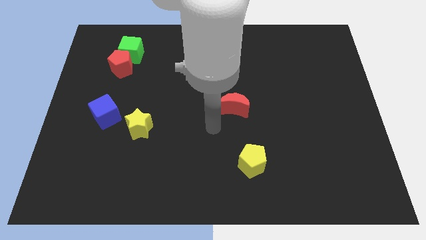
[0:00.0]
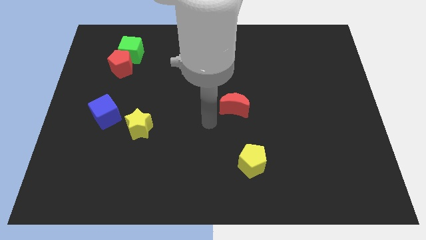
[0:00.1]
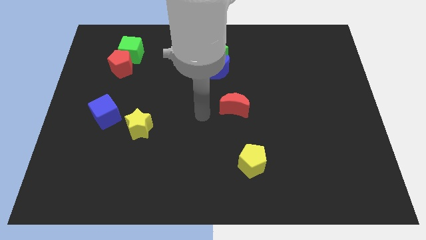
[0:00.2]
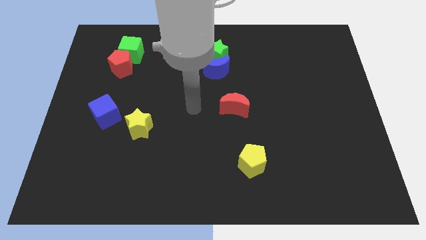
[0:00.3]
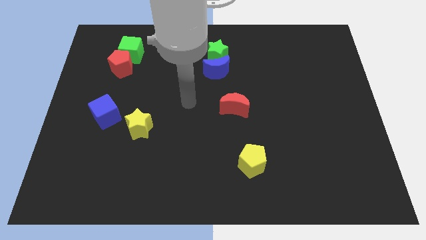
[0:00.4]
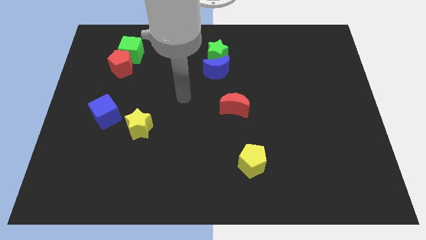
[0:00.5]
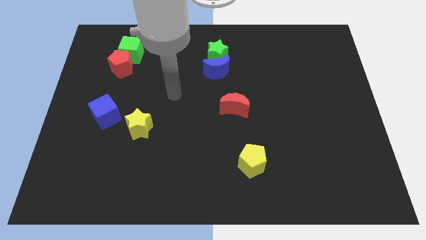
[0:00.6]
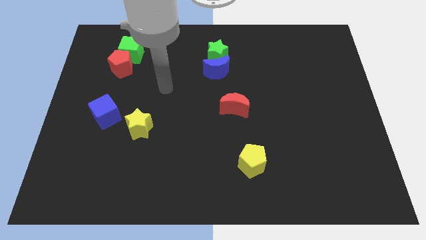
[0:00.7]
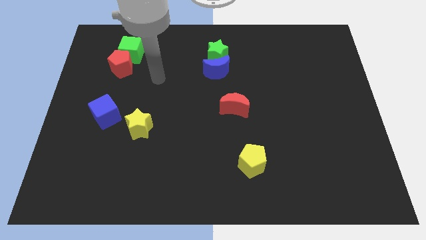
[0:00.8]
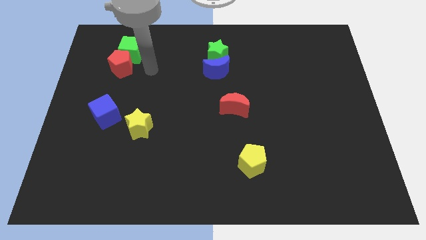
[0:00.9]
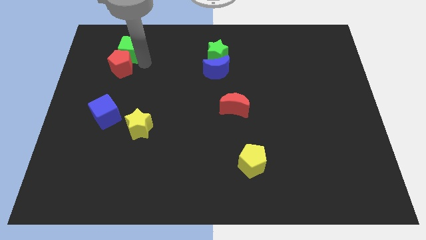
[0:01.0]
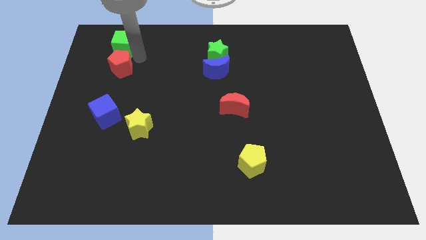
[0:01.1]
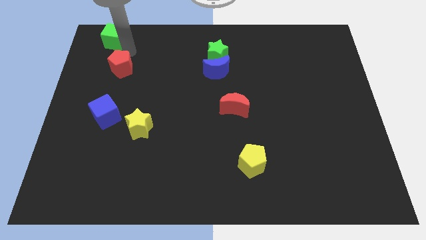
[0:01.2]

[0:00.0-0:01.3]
separate the red pentagon from the green cube

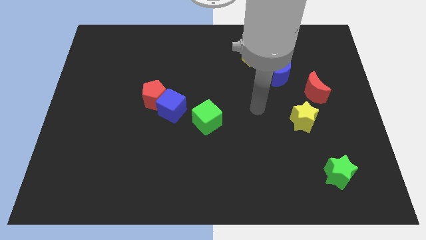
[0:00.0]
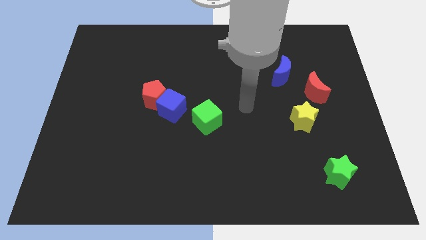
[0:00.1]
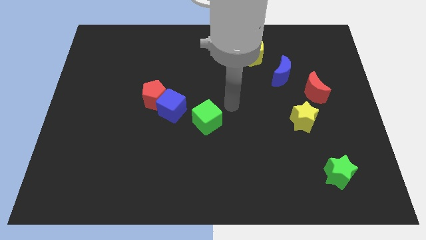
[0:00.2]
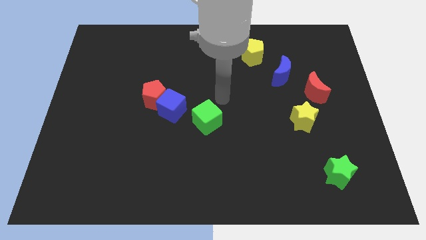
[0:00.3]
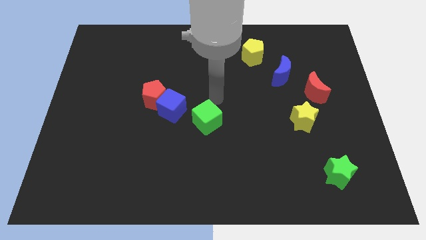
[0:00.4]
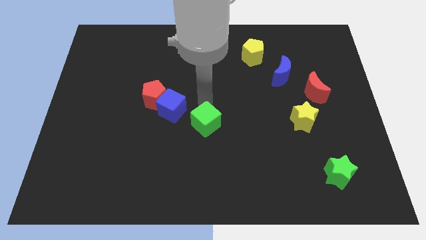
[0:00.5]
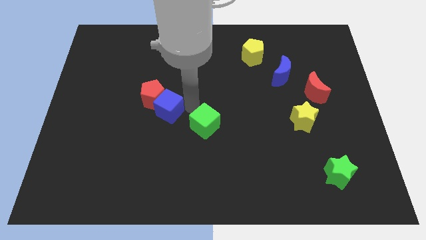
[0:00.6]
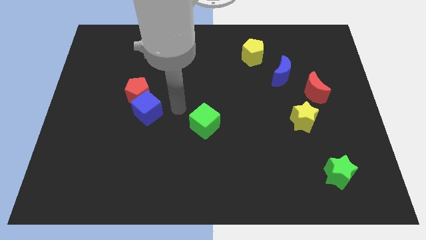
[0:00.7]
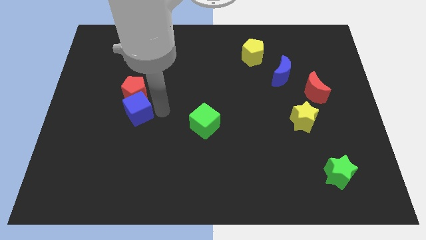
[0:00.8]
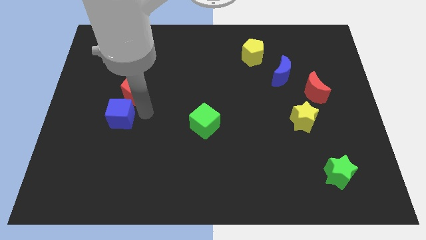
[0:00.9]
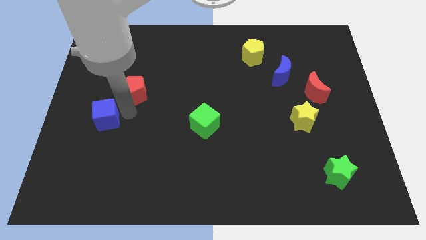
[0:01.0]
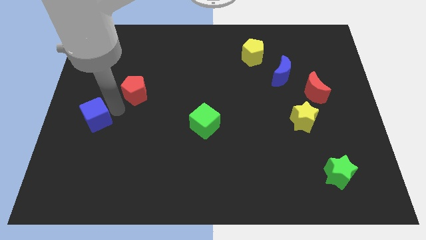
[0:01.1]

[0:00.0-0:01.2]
move the red pentagon away from the blue cube

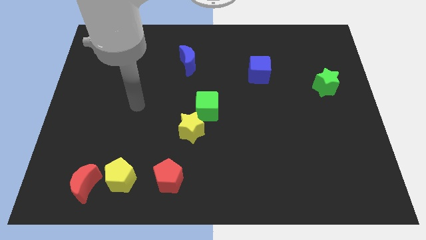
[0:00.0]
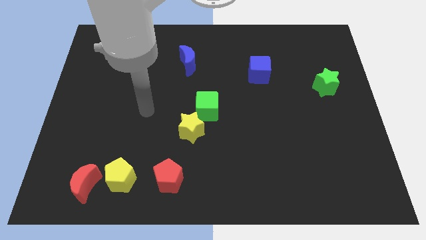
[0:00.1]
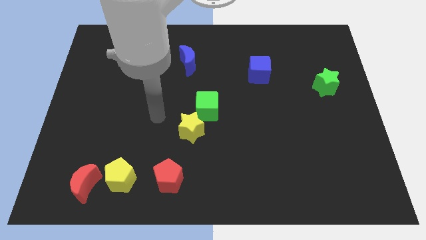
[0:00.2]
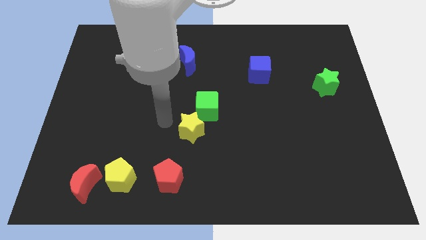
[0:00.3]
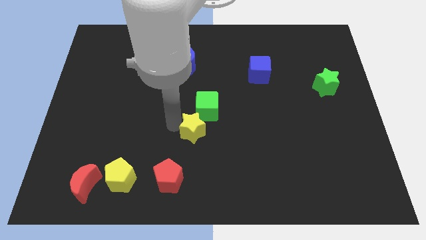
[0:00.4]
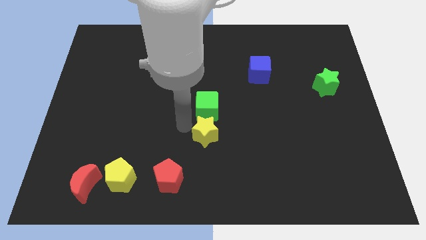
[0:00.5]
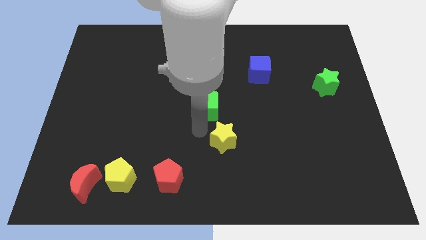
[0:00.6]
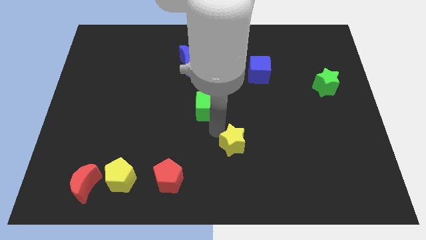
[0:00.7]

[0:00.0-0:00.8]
pull the green cube apart from the yellow star

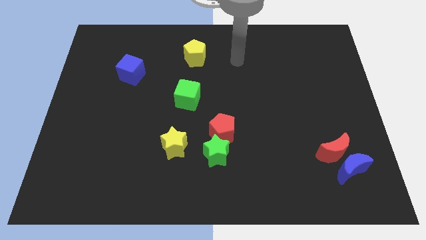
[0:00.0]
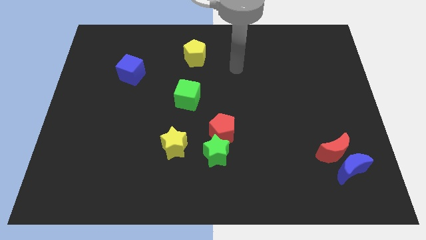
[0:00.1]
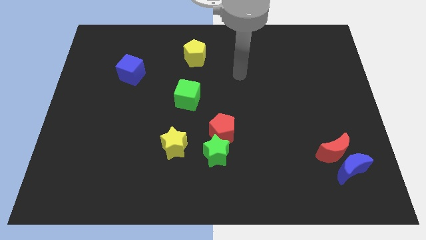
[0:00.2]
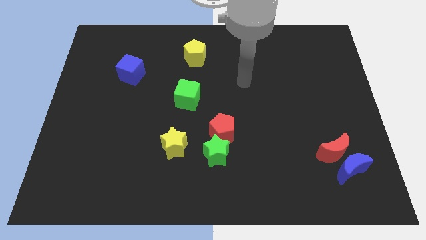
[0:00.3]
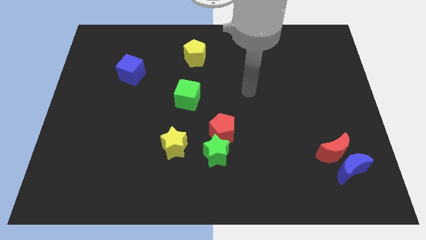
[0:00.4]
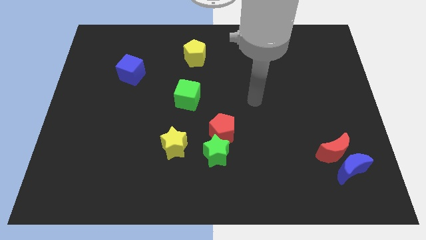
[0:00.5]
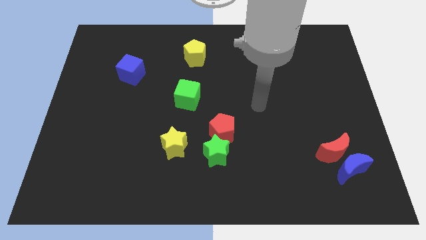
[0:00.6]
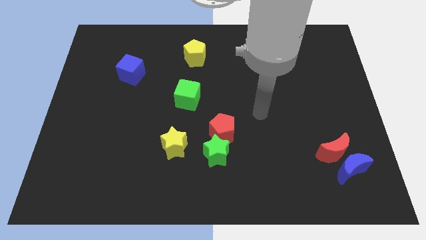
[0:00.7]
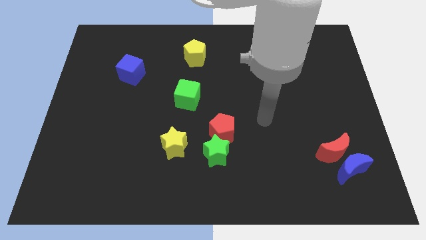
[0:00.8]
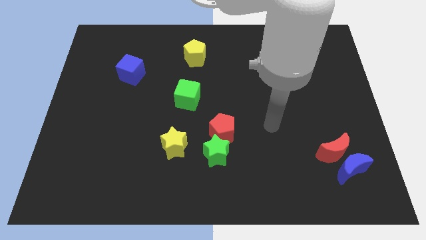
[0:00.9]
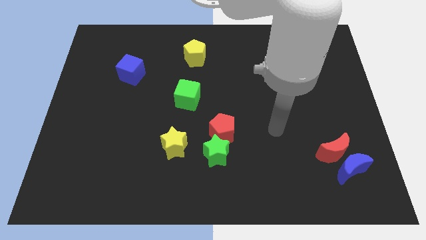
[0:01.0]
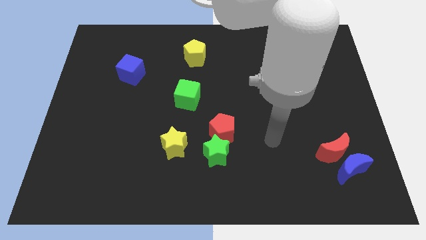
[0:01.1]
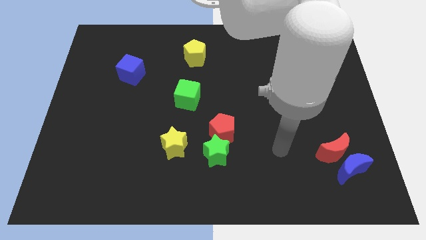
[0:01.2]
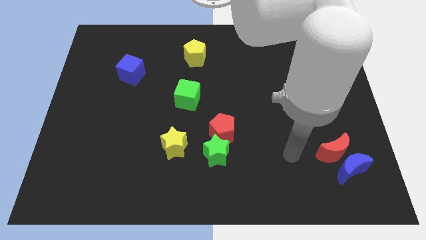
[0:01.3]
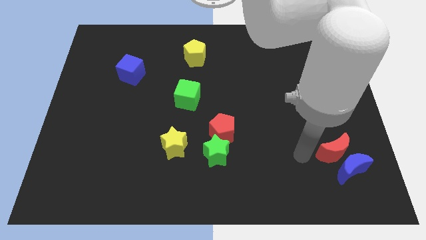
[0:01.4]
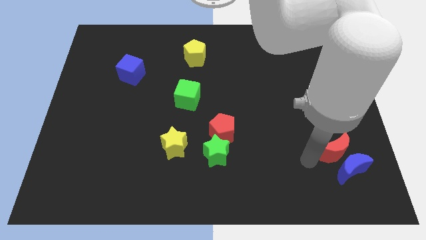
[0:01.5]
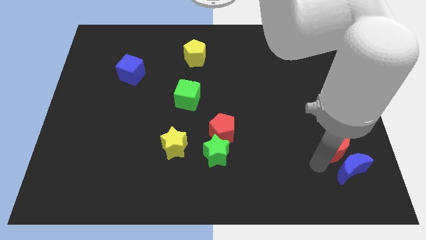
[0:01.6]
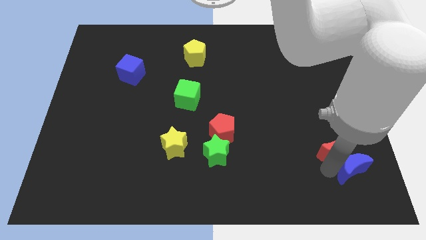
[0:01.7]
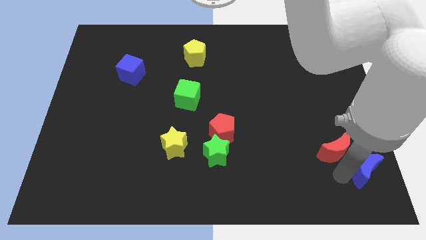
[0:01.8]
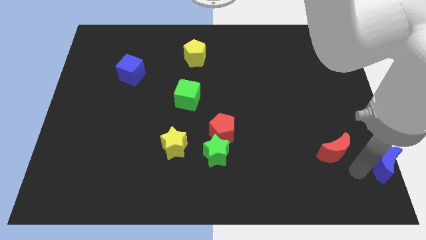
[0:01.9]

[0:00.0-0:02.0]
move the red moon away from the blue moon

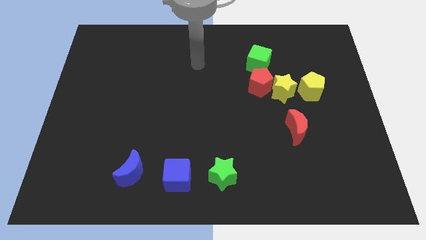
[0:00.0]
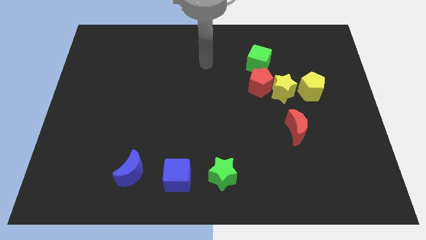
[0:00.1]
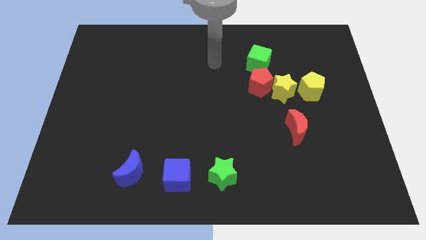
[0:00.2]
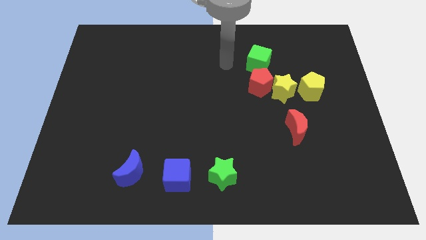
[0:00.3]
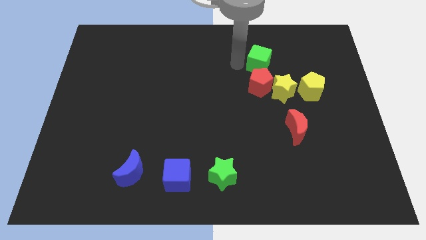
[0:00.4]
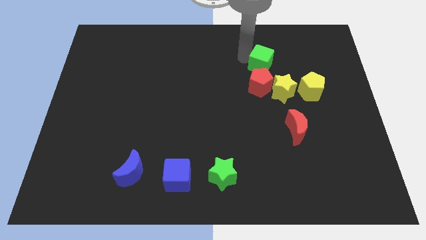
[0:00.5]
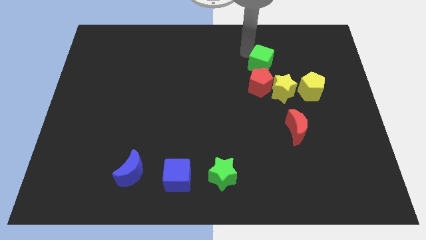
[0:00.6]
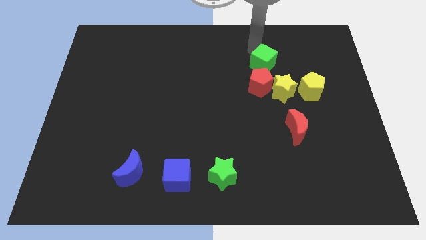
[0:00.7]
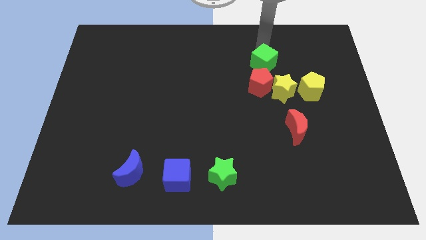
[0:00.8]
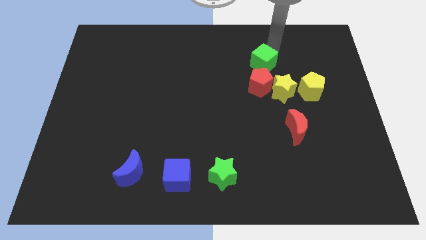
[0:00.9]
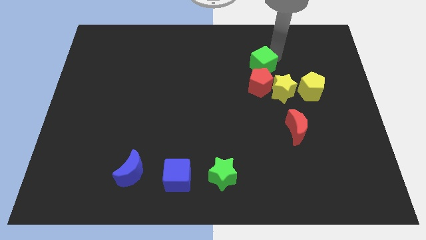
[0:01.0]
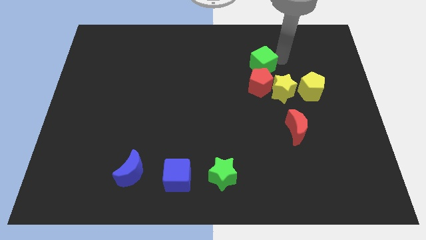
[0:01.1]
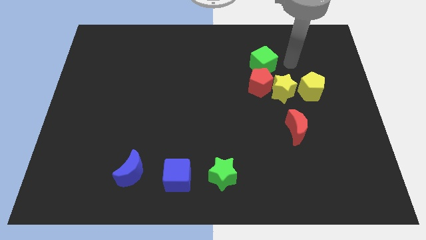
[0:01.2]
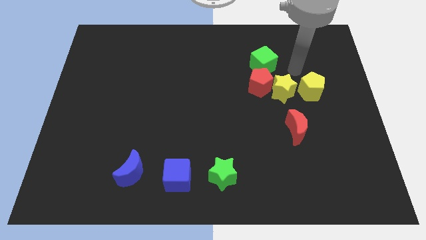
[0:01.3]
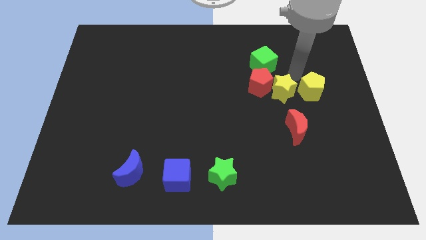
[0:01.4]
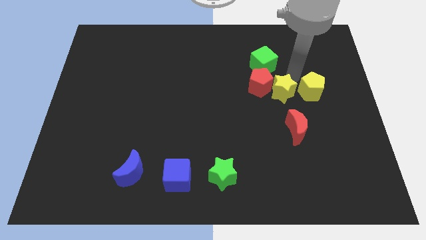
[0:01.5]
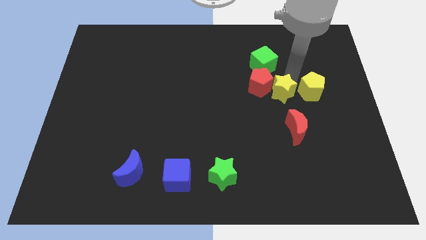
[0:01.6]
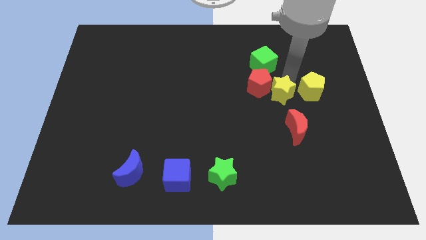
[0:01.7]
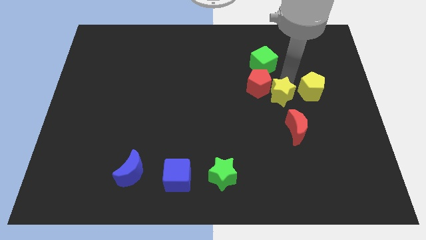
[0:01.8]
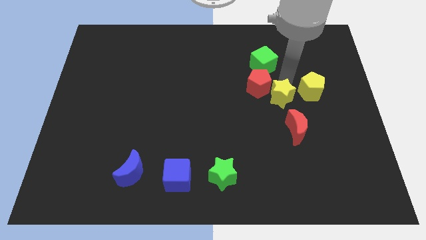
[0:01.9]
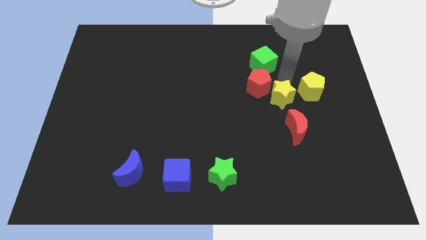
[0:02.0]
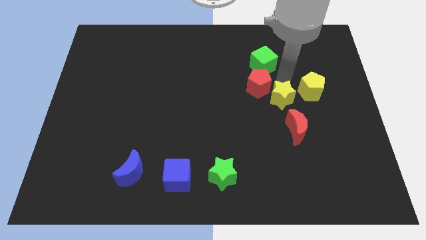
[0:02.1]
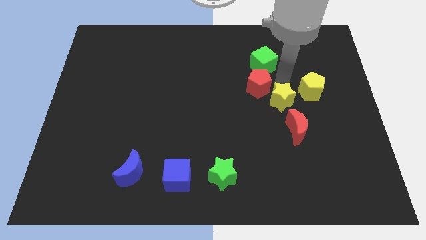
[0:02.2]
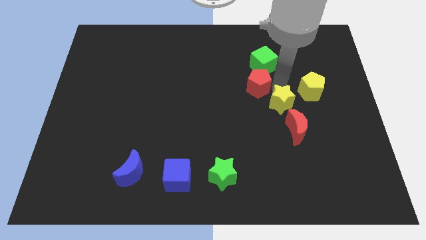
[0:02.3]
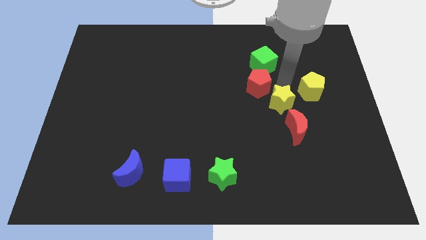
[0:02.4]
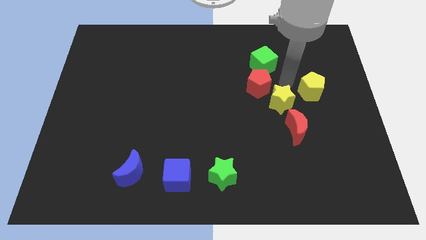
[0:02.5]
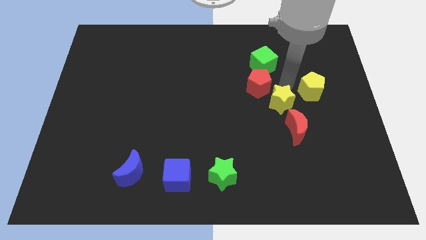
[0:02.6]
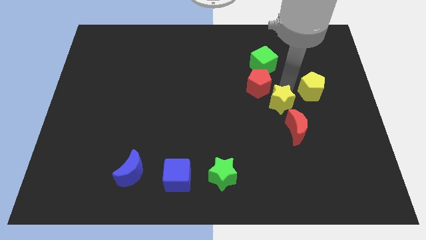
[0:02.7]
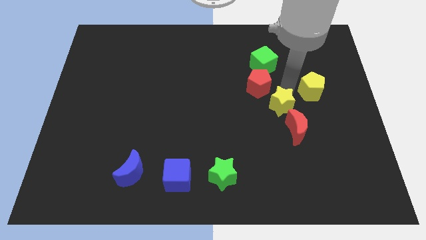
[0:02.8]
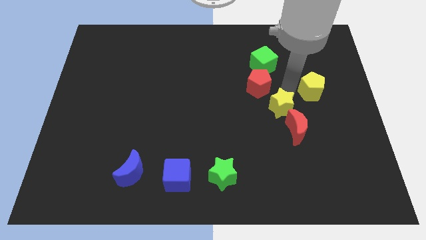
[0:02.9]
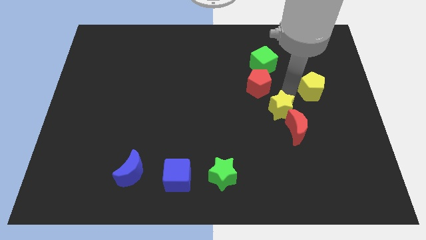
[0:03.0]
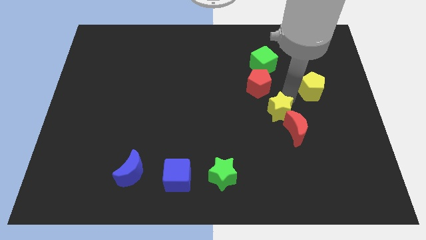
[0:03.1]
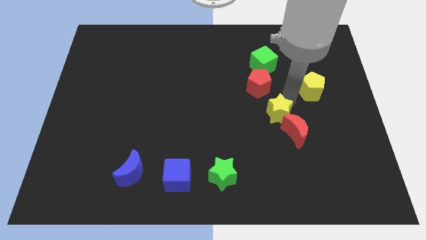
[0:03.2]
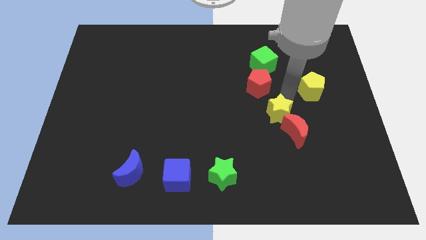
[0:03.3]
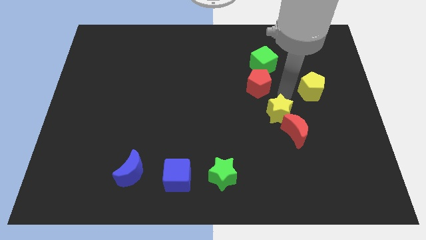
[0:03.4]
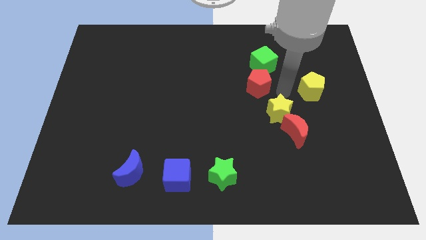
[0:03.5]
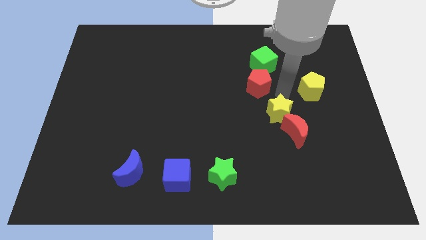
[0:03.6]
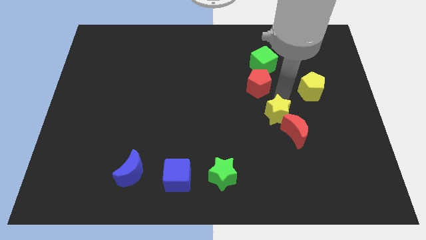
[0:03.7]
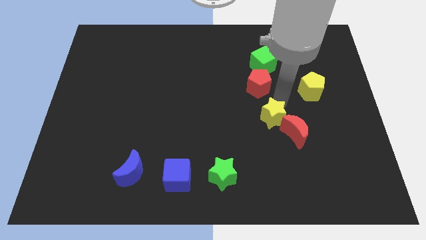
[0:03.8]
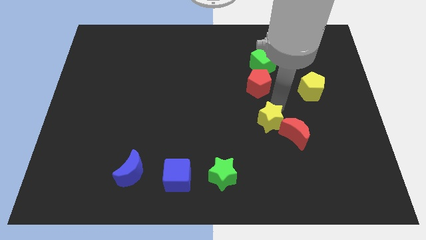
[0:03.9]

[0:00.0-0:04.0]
move the yellow star away from the red pentagon and yellow pentagon

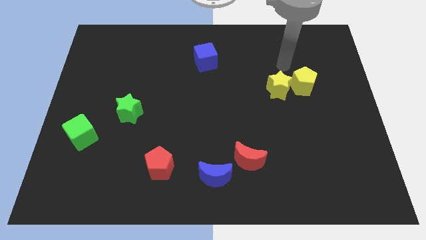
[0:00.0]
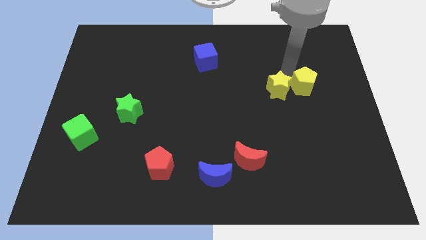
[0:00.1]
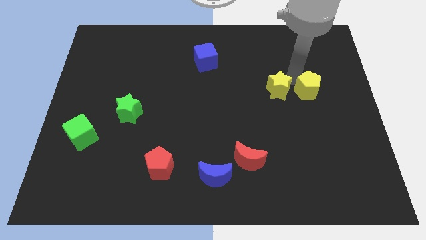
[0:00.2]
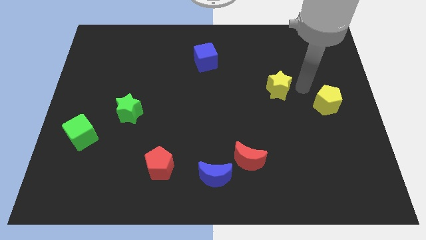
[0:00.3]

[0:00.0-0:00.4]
separate the yellow star from the yellow pentagon
